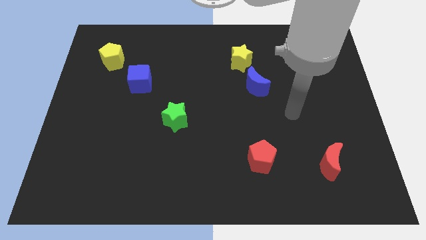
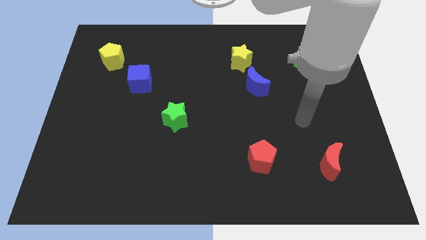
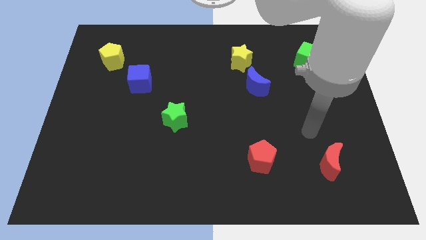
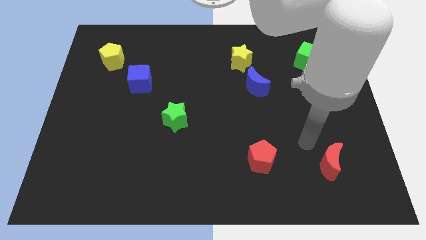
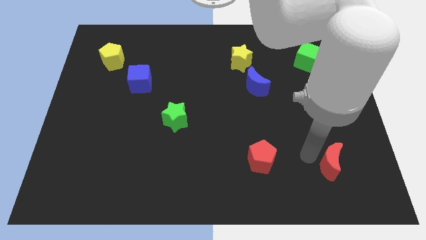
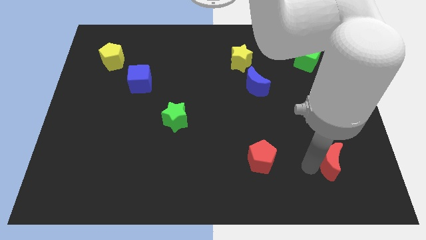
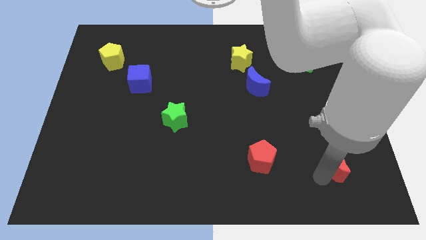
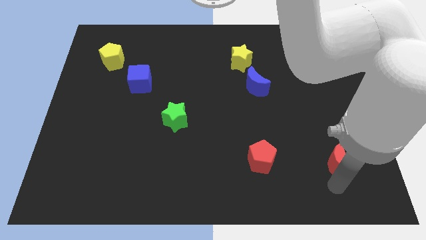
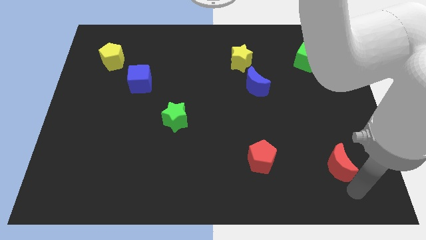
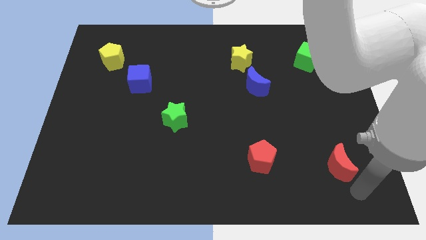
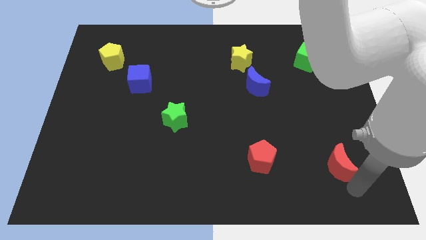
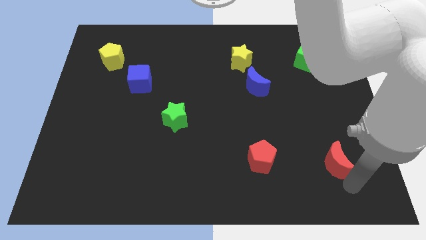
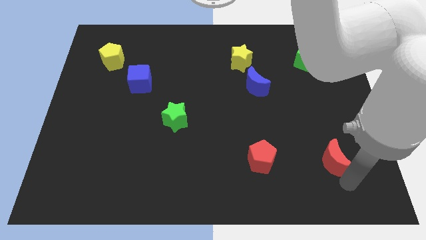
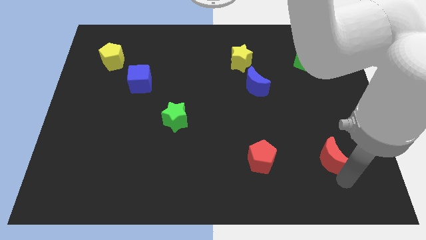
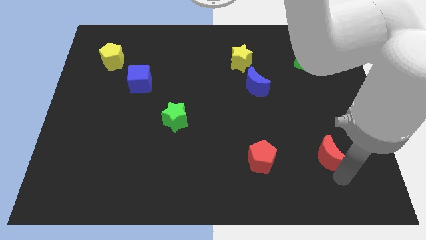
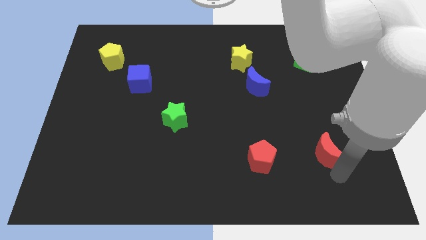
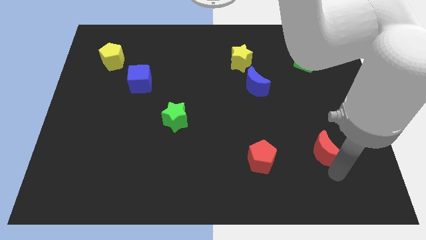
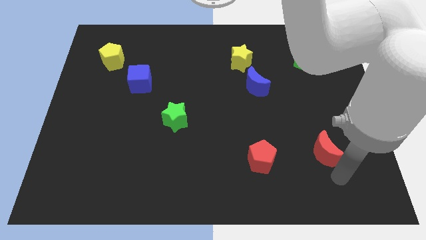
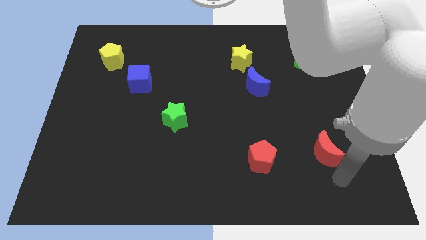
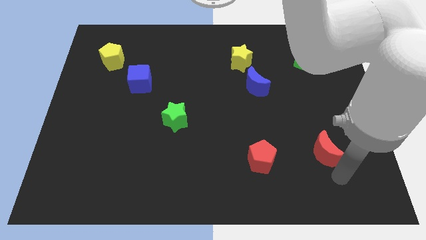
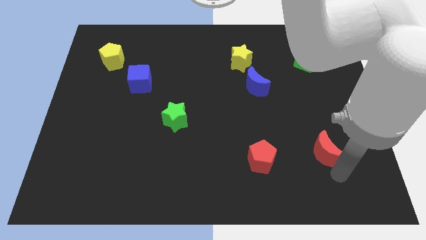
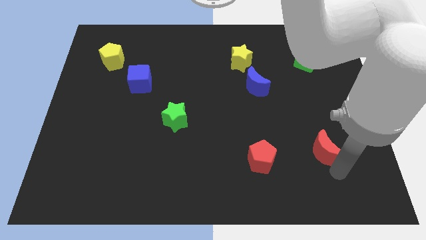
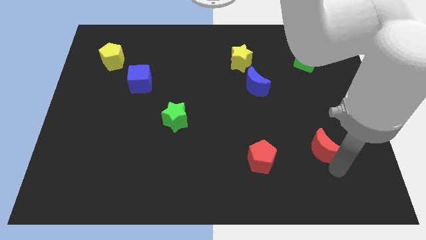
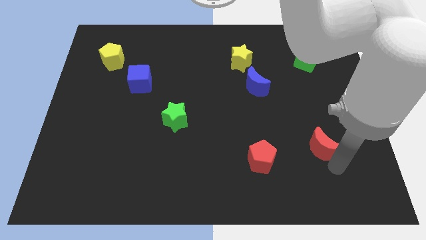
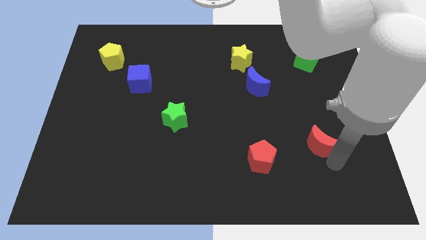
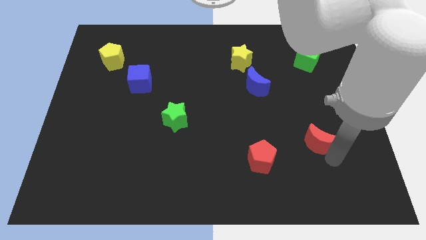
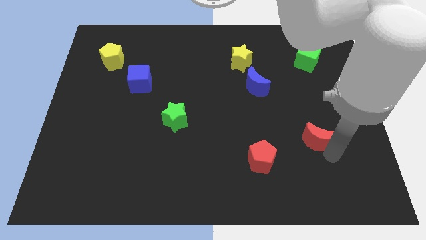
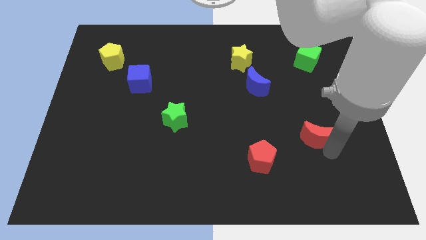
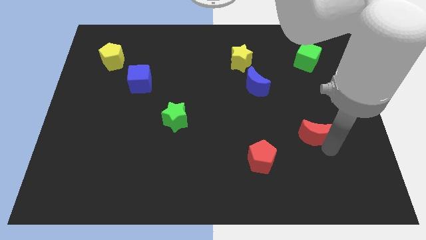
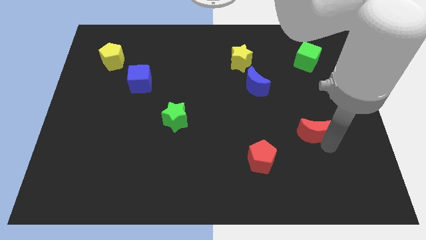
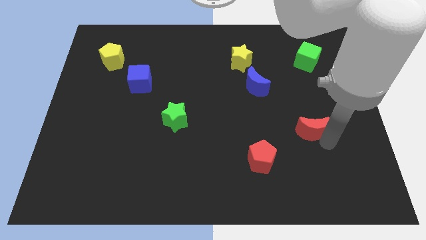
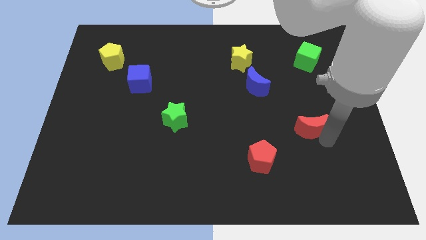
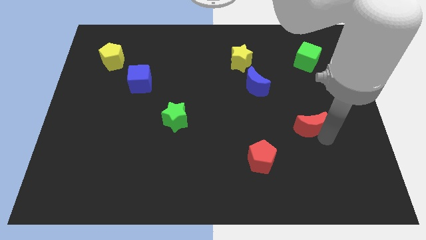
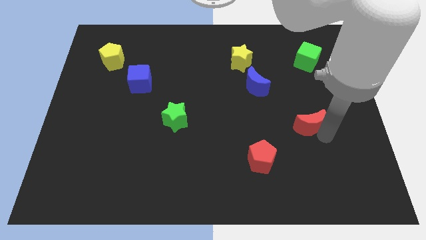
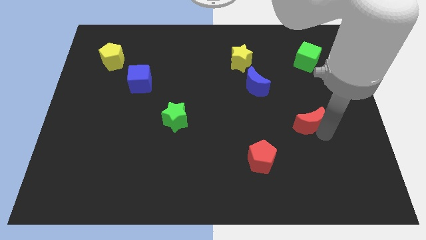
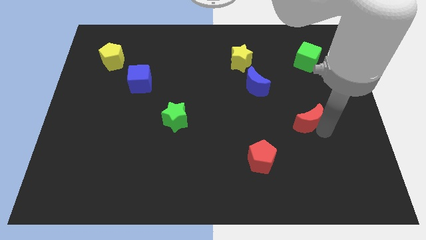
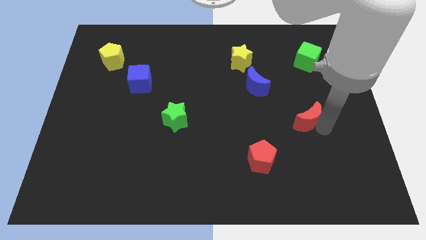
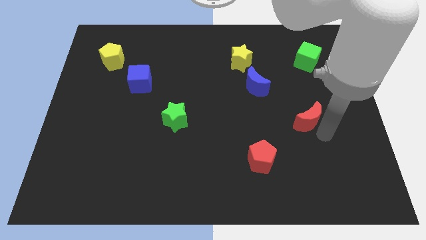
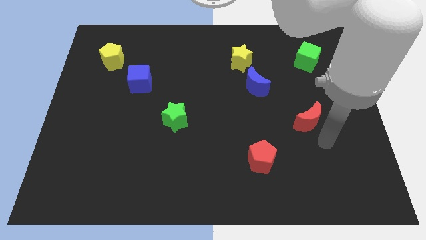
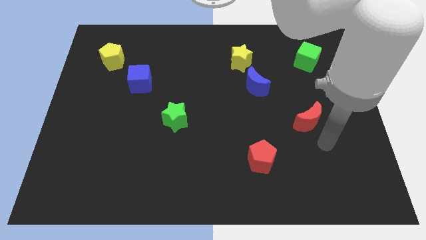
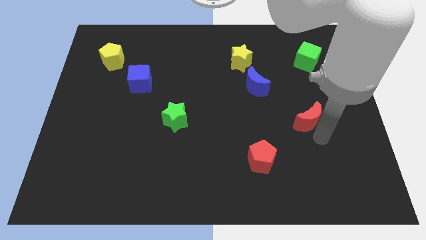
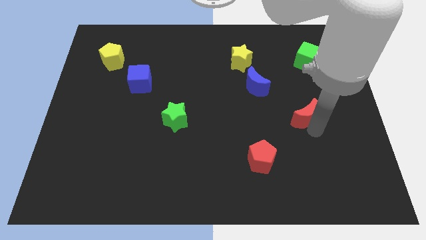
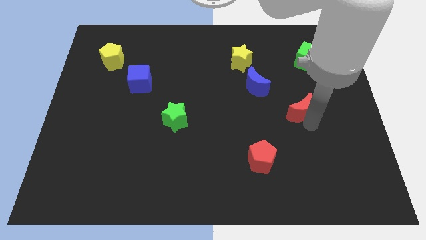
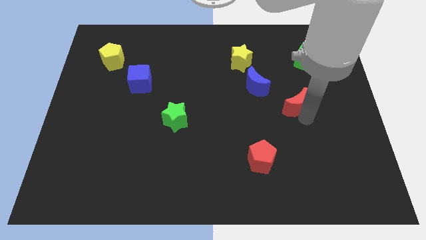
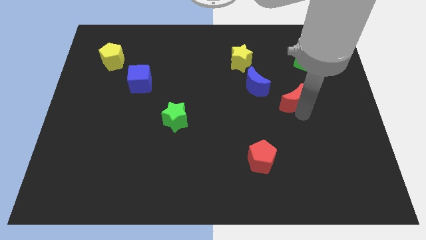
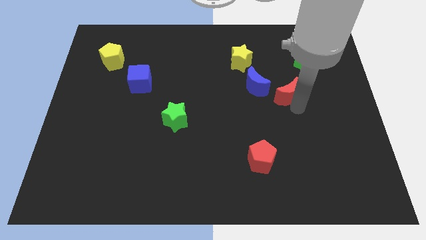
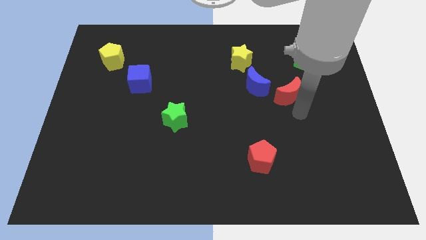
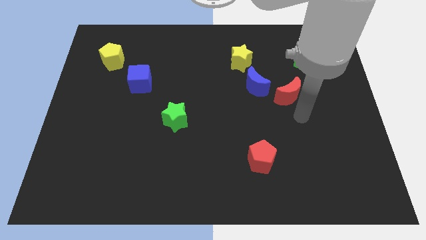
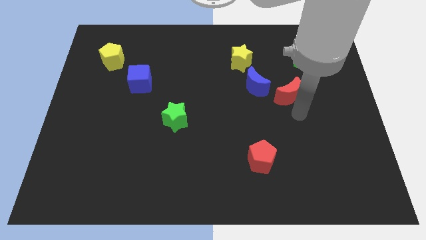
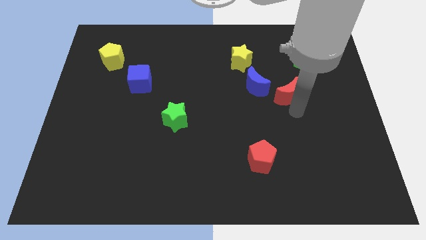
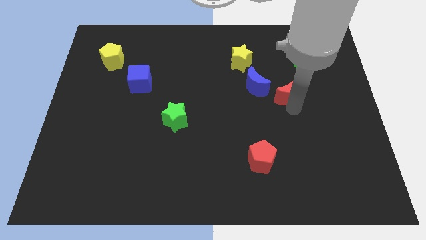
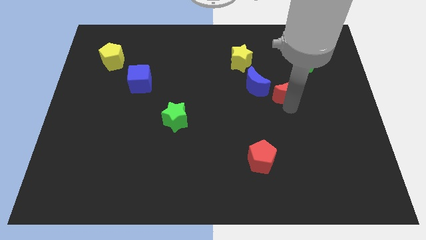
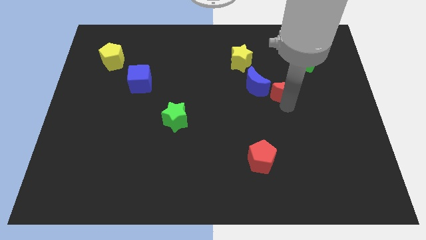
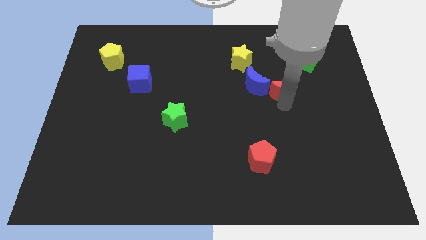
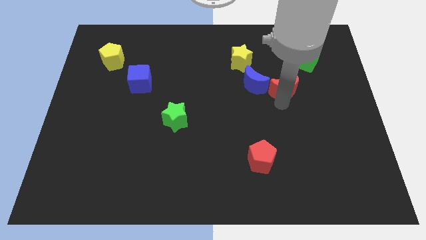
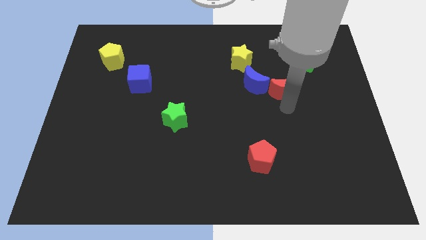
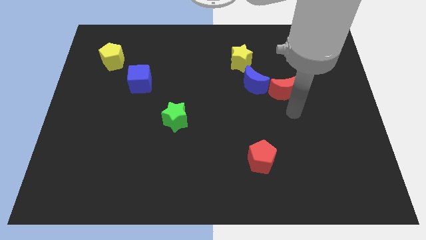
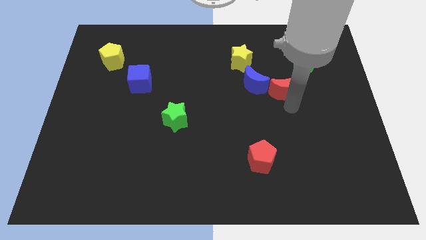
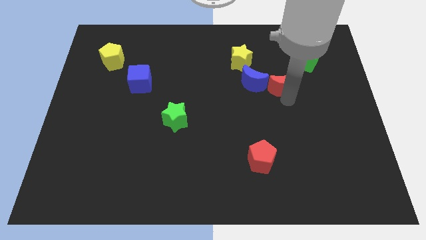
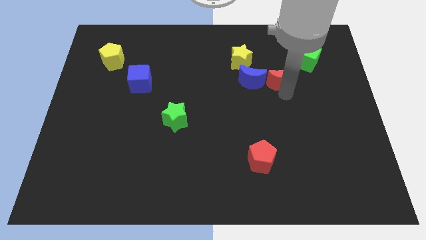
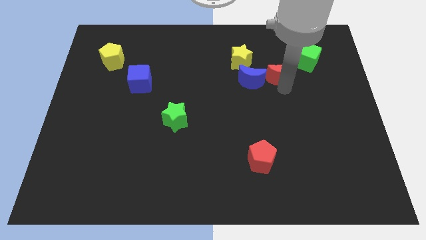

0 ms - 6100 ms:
move the red moon diagonally up and to the right of the blue moon
